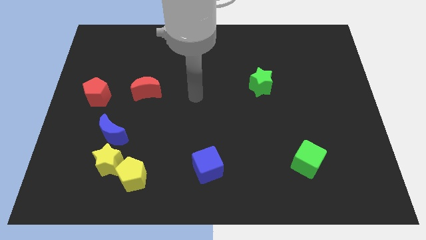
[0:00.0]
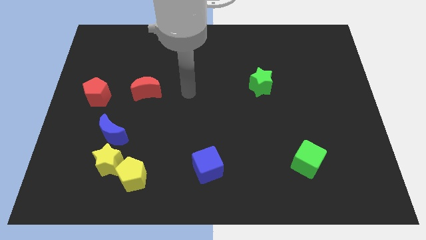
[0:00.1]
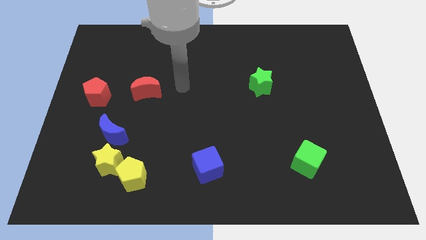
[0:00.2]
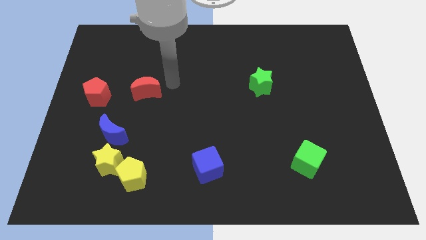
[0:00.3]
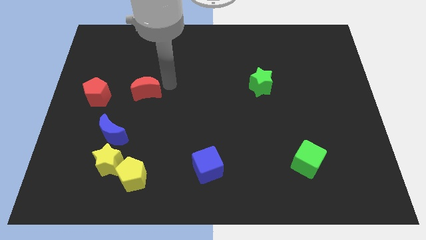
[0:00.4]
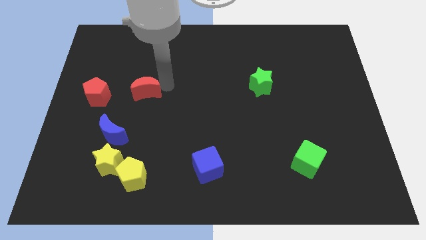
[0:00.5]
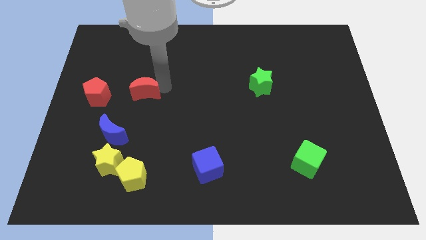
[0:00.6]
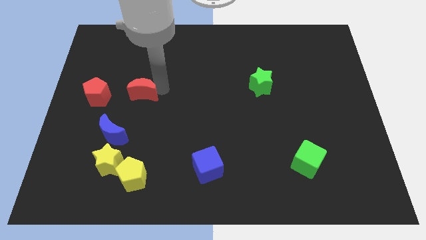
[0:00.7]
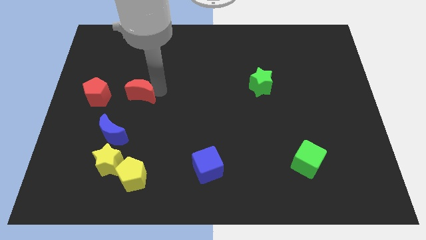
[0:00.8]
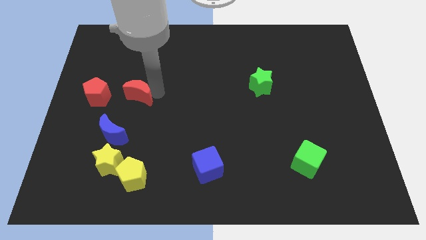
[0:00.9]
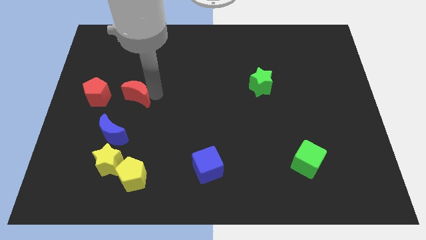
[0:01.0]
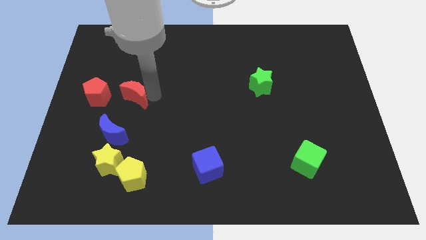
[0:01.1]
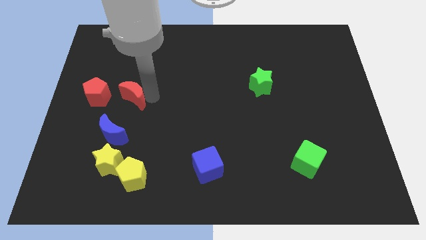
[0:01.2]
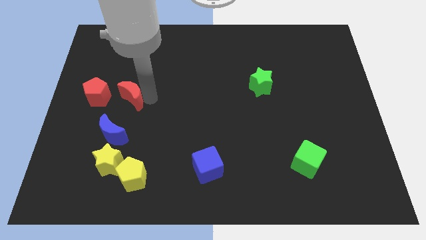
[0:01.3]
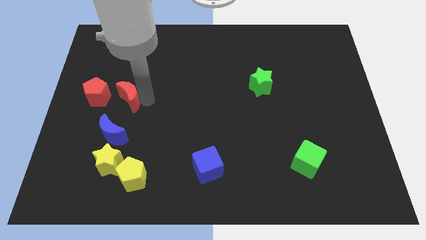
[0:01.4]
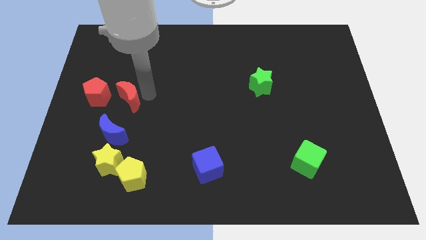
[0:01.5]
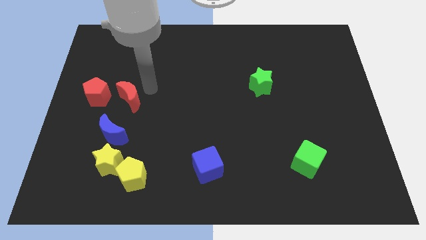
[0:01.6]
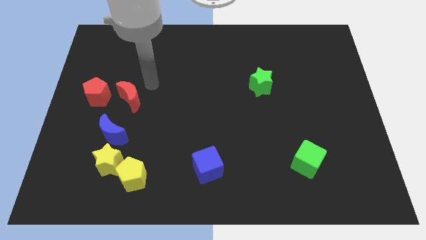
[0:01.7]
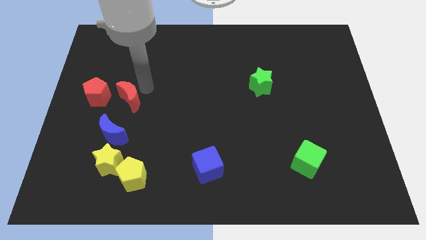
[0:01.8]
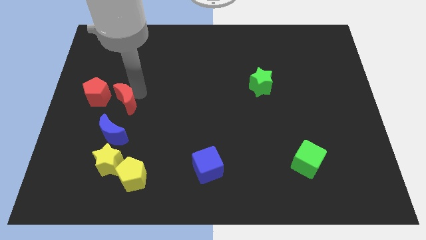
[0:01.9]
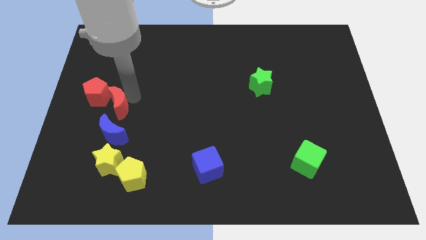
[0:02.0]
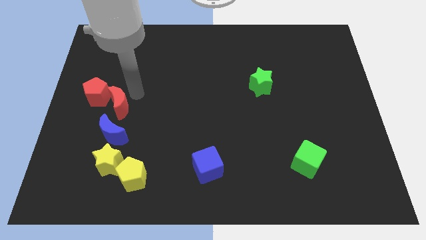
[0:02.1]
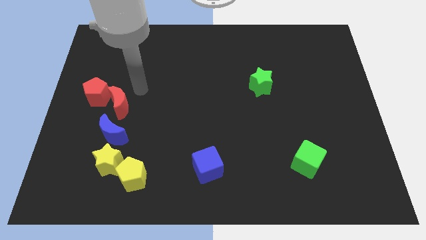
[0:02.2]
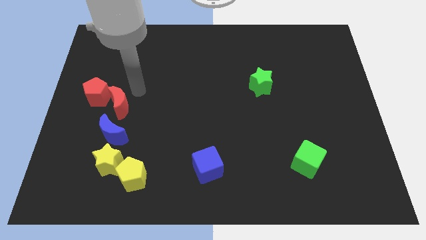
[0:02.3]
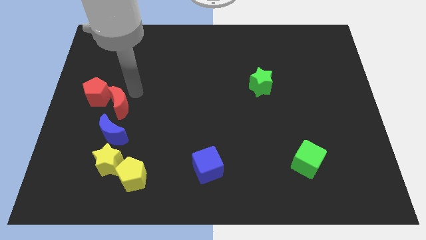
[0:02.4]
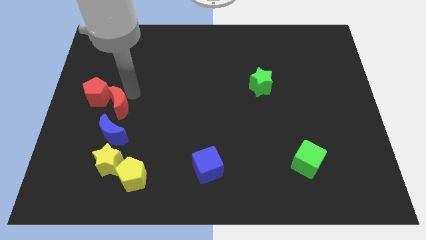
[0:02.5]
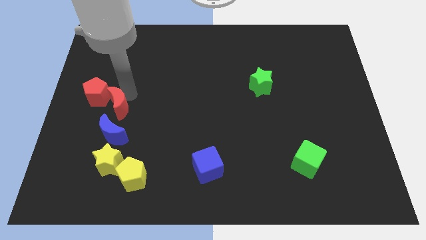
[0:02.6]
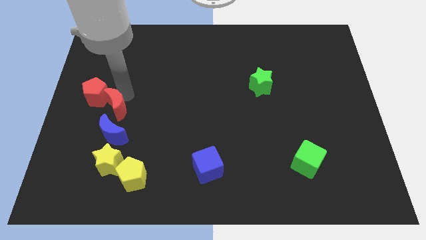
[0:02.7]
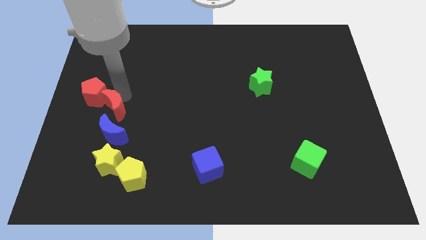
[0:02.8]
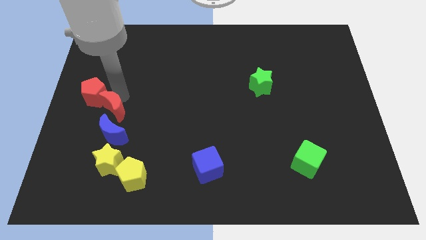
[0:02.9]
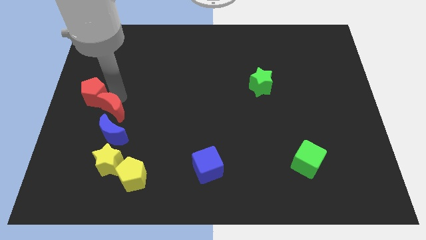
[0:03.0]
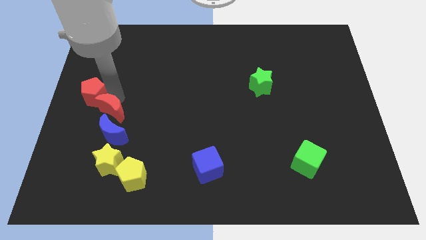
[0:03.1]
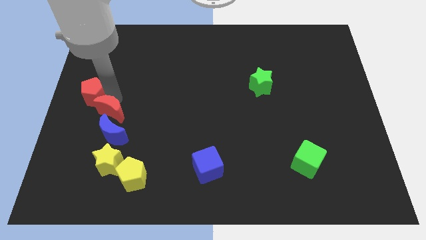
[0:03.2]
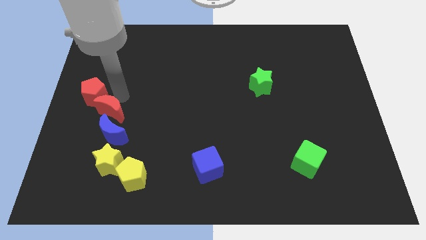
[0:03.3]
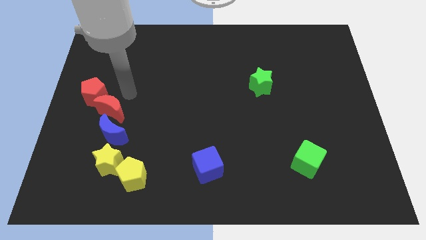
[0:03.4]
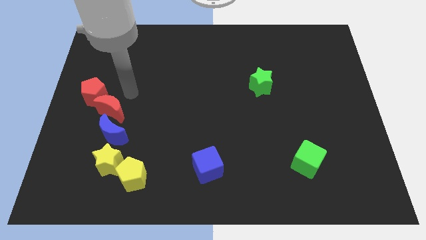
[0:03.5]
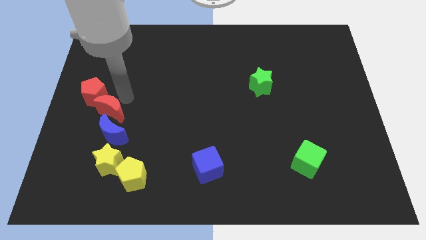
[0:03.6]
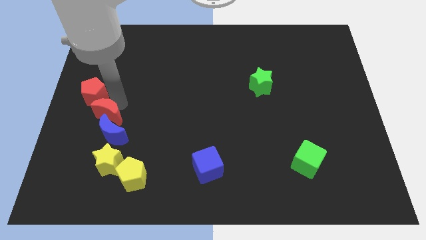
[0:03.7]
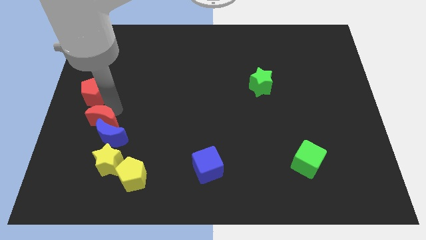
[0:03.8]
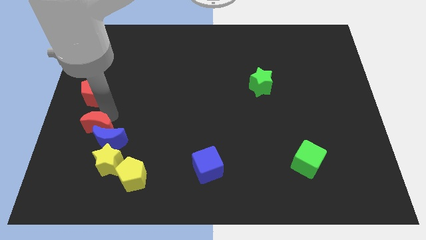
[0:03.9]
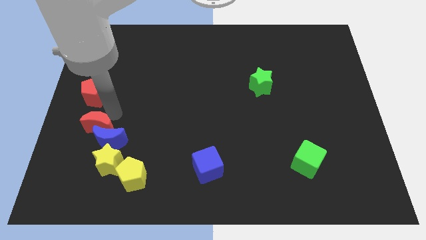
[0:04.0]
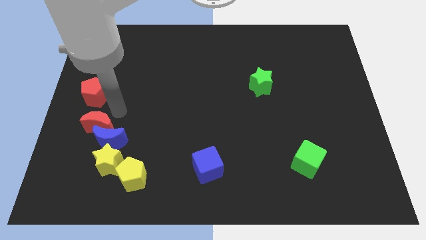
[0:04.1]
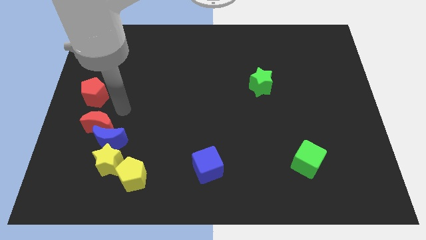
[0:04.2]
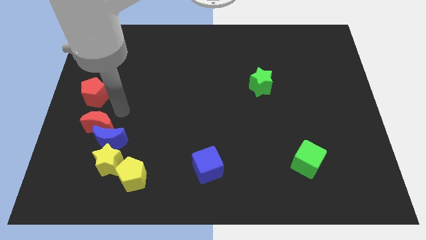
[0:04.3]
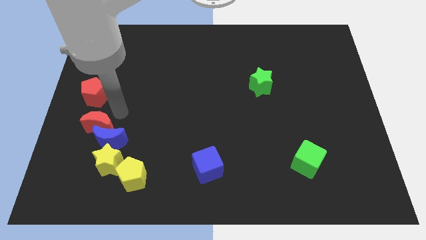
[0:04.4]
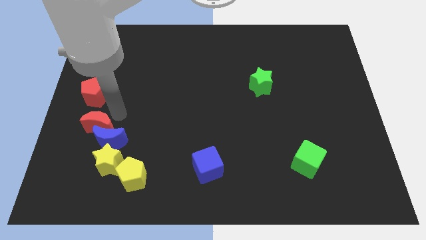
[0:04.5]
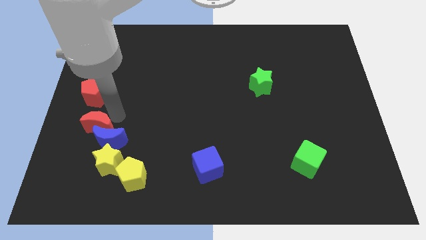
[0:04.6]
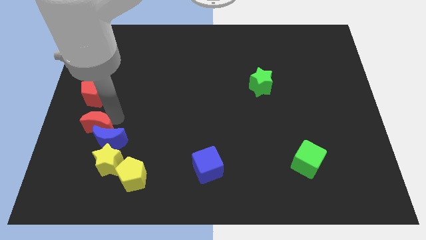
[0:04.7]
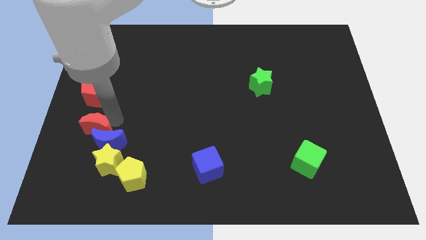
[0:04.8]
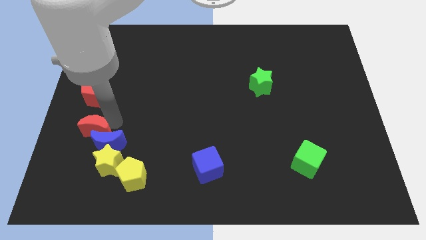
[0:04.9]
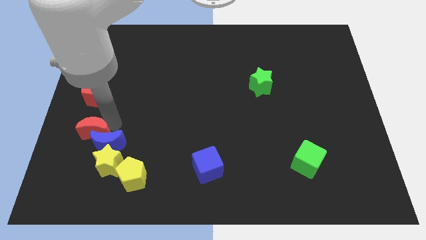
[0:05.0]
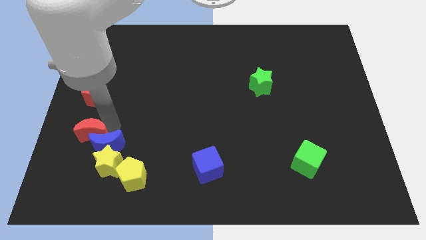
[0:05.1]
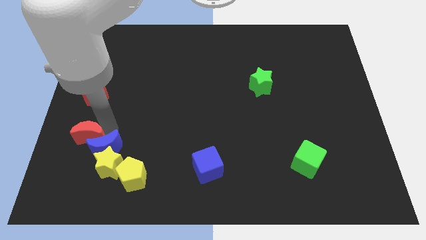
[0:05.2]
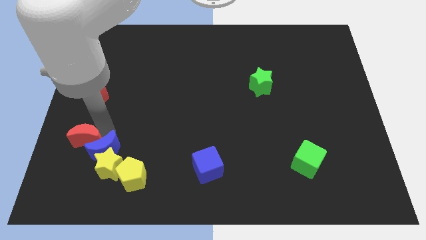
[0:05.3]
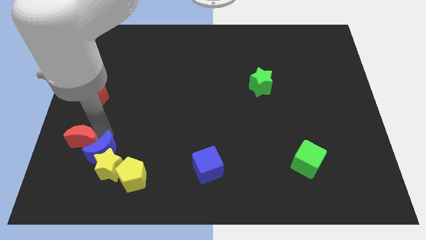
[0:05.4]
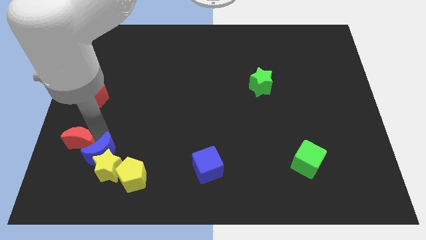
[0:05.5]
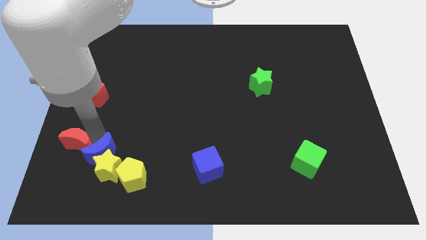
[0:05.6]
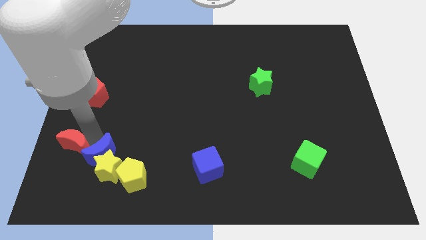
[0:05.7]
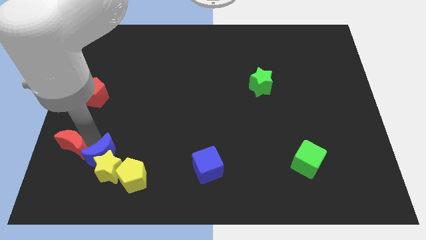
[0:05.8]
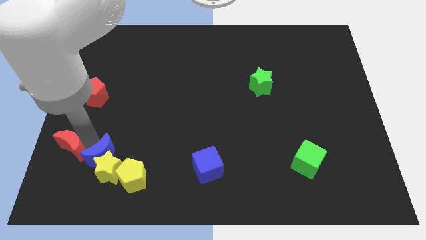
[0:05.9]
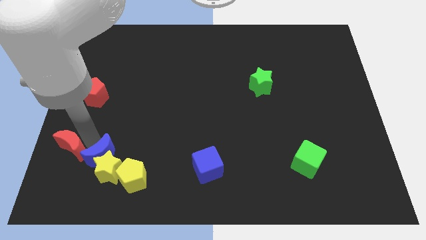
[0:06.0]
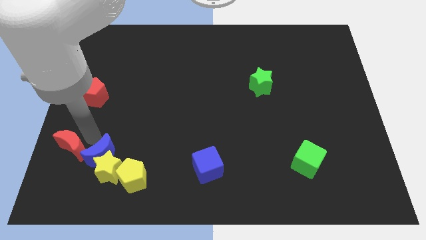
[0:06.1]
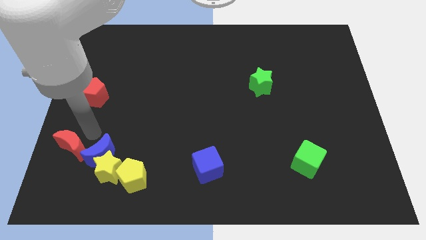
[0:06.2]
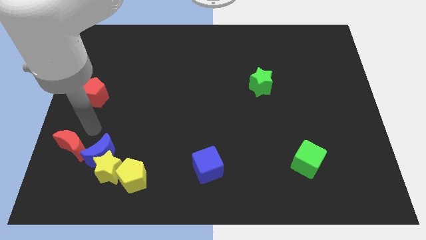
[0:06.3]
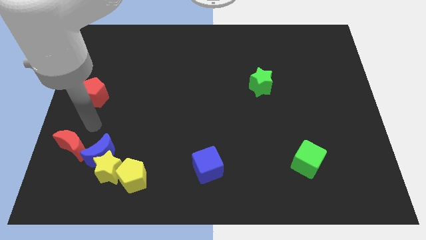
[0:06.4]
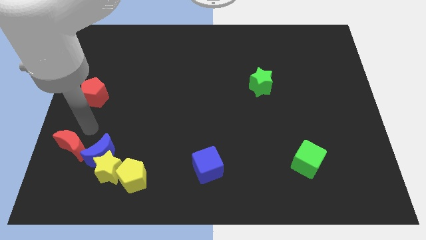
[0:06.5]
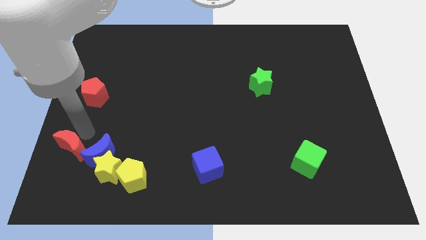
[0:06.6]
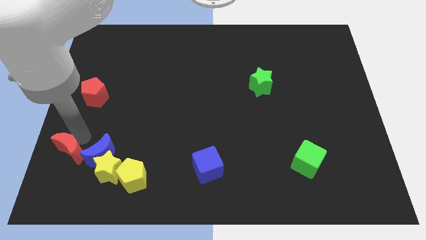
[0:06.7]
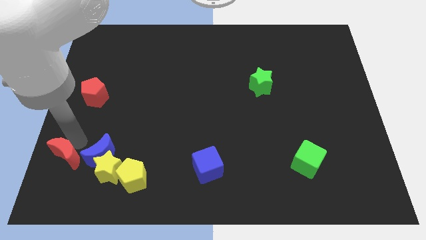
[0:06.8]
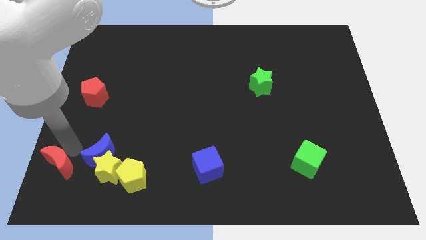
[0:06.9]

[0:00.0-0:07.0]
move the red moon to the bottom left corner
